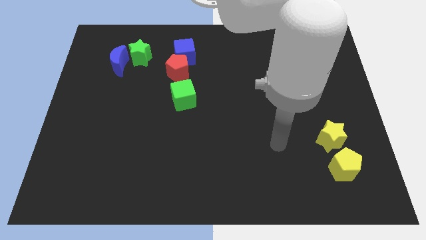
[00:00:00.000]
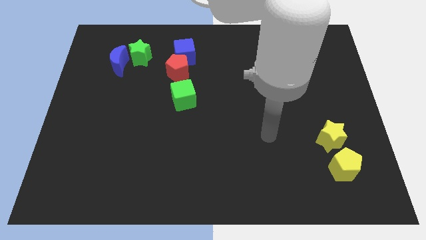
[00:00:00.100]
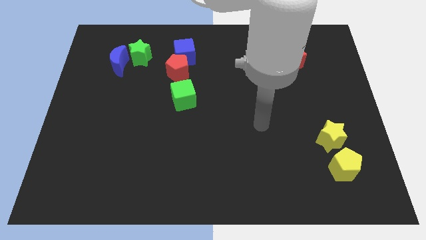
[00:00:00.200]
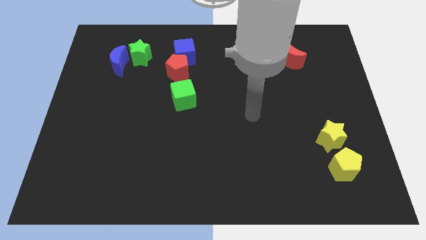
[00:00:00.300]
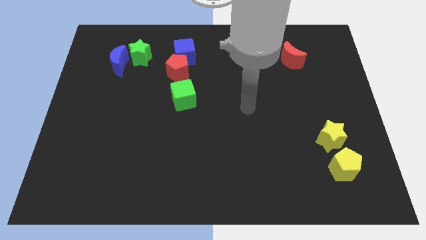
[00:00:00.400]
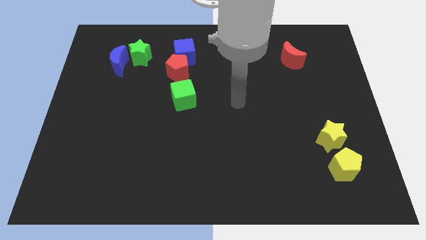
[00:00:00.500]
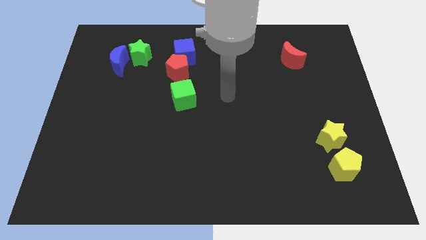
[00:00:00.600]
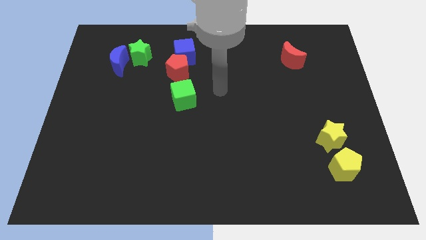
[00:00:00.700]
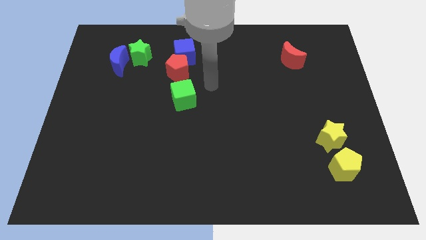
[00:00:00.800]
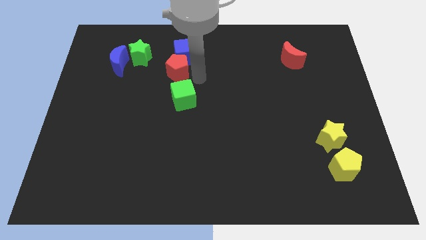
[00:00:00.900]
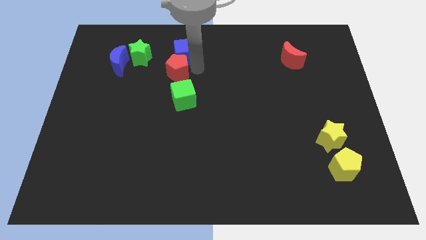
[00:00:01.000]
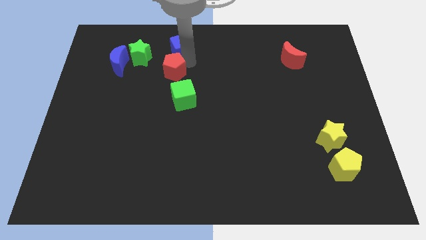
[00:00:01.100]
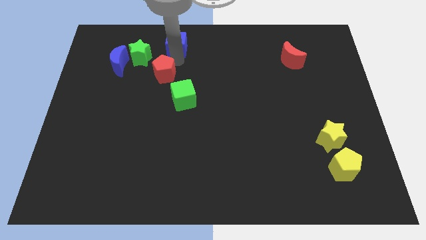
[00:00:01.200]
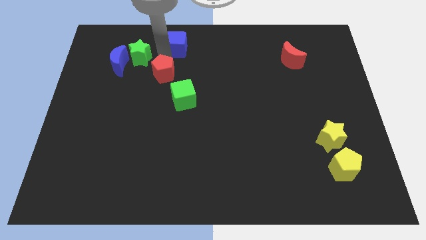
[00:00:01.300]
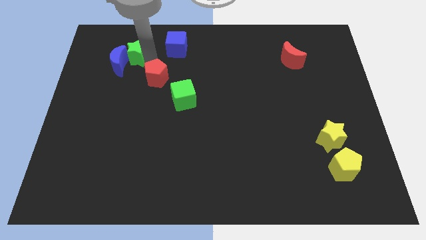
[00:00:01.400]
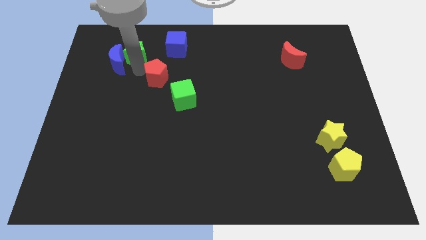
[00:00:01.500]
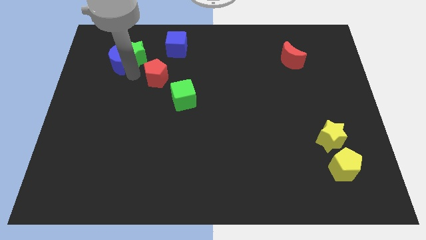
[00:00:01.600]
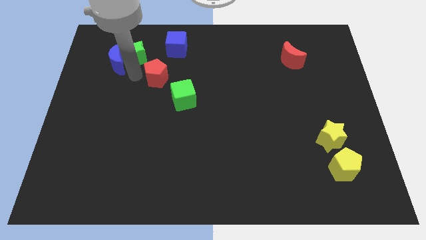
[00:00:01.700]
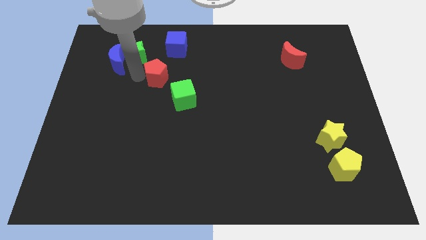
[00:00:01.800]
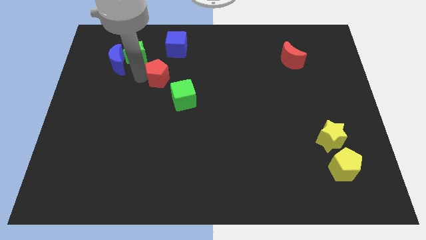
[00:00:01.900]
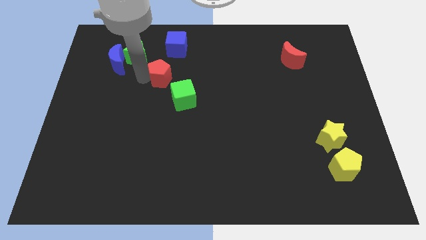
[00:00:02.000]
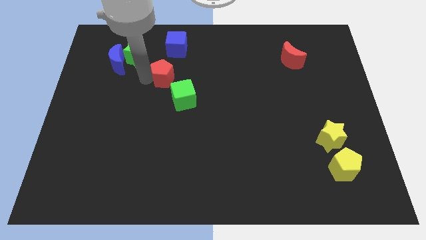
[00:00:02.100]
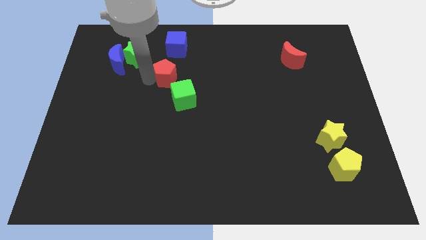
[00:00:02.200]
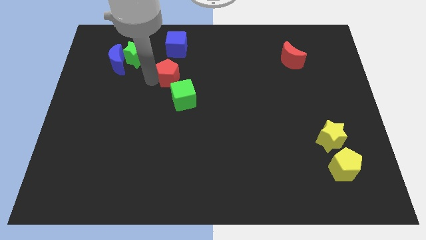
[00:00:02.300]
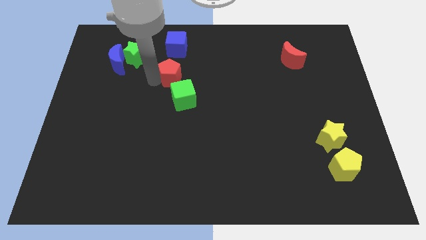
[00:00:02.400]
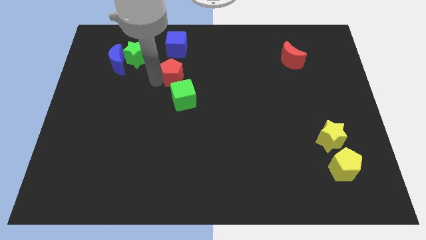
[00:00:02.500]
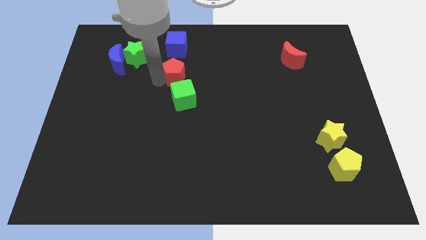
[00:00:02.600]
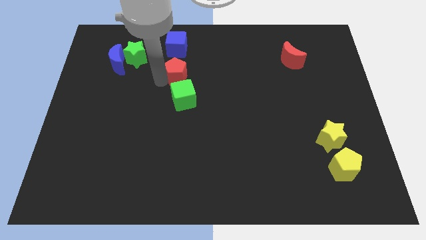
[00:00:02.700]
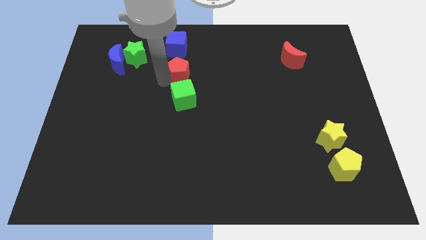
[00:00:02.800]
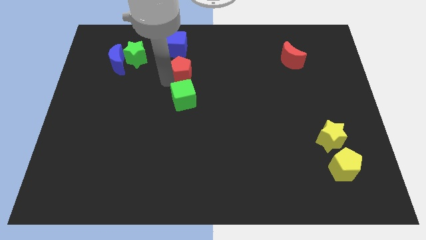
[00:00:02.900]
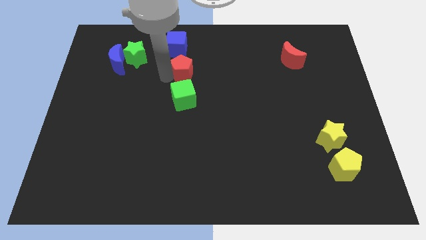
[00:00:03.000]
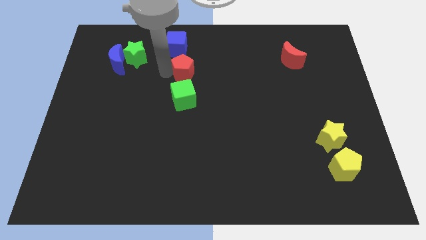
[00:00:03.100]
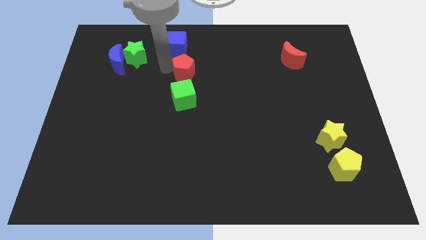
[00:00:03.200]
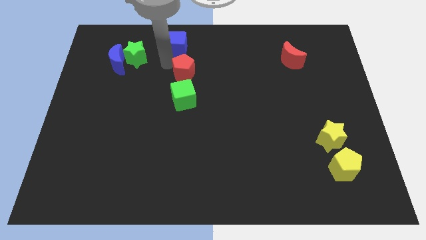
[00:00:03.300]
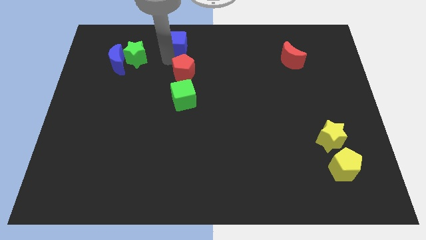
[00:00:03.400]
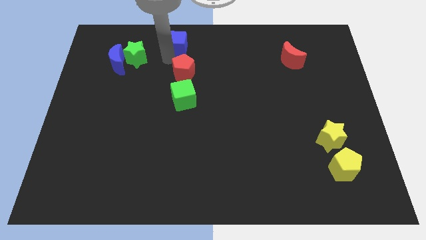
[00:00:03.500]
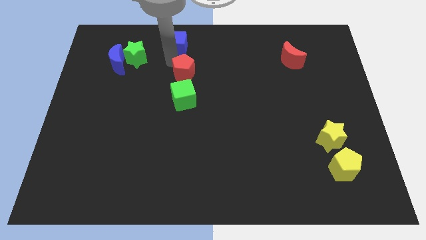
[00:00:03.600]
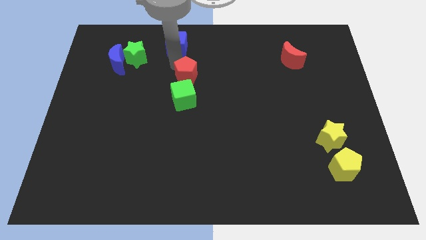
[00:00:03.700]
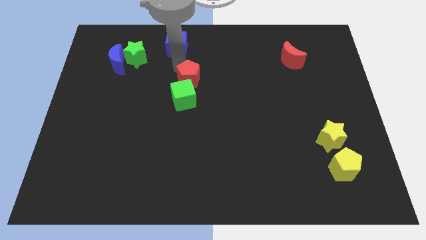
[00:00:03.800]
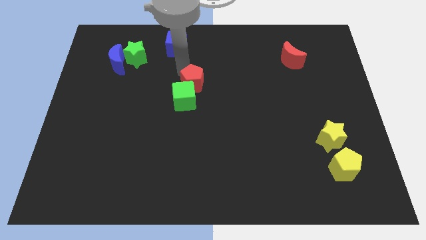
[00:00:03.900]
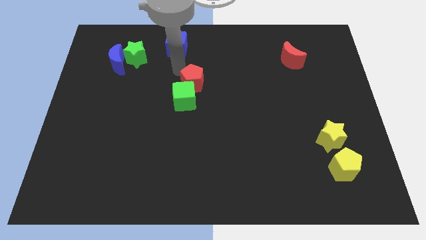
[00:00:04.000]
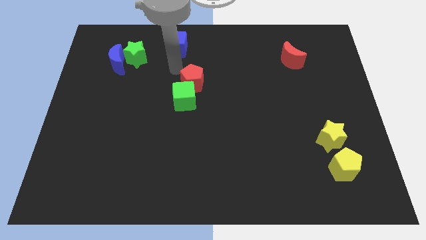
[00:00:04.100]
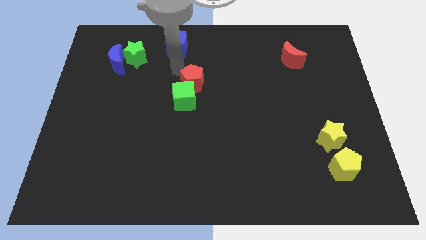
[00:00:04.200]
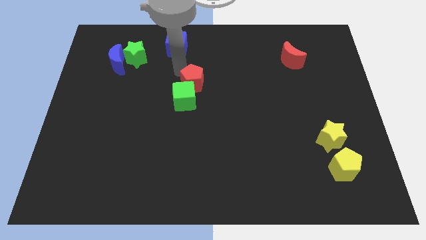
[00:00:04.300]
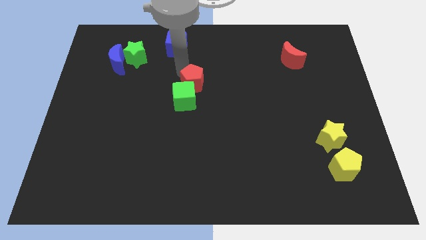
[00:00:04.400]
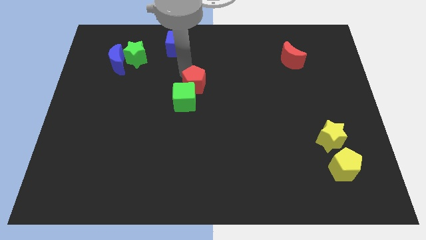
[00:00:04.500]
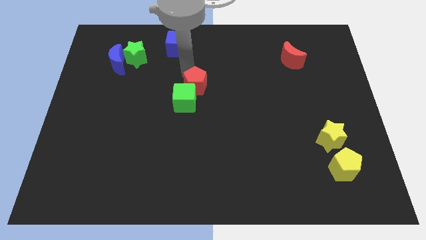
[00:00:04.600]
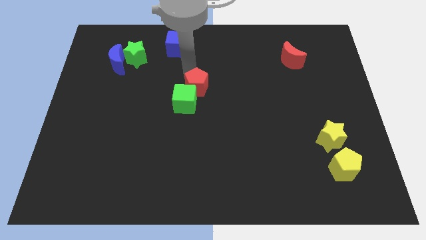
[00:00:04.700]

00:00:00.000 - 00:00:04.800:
push the red pentagon a bit down and then right

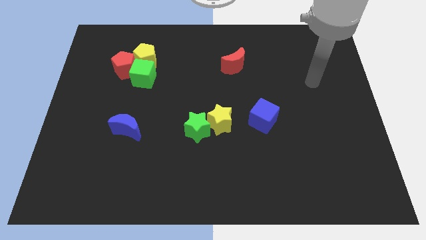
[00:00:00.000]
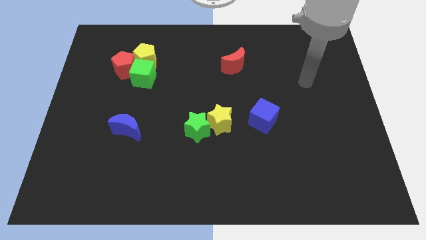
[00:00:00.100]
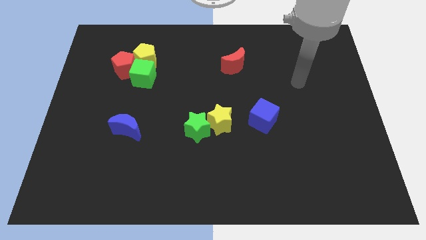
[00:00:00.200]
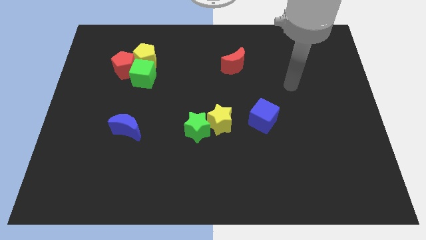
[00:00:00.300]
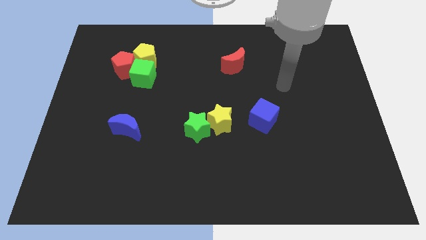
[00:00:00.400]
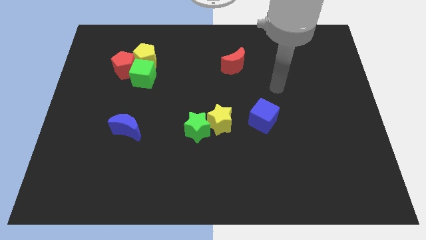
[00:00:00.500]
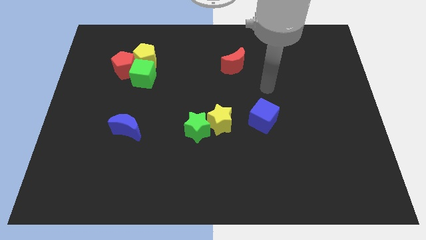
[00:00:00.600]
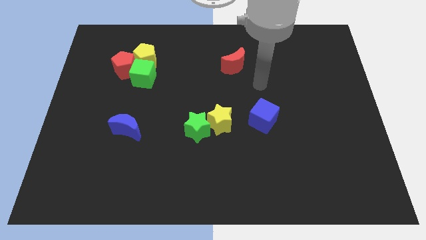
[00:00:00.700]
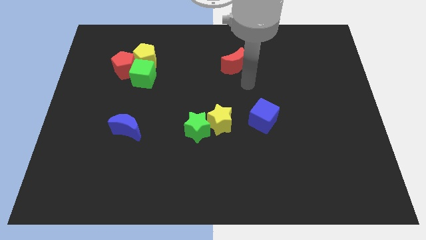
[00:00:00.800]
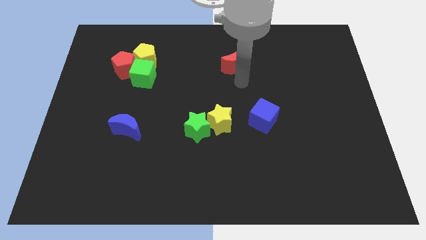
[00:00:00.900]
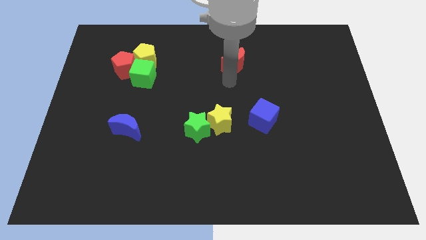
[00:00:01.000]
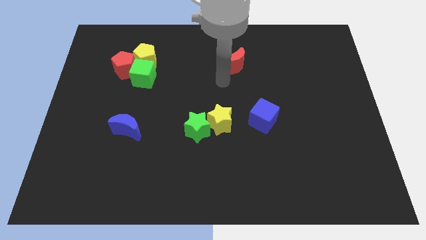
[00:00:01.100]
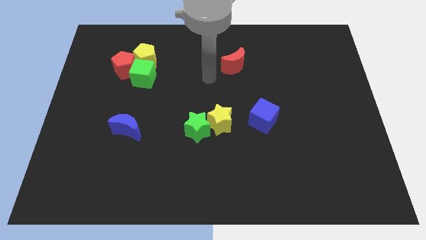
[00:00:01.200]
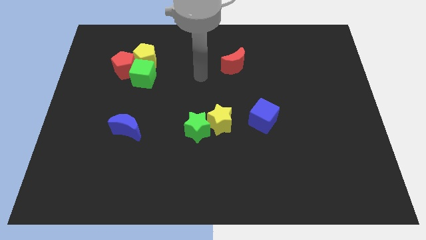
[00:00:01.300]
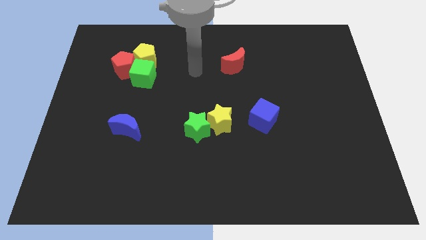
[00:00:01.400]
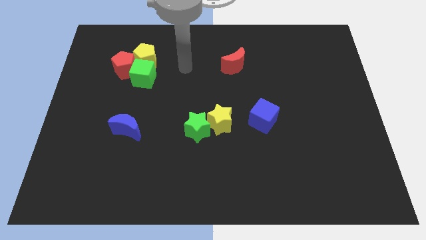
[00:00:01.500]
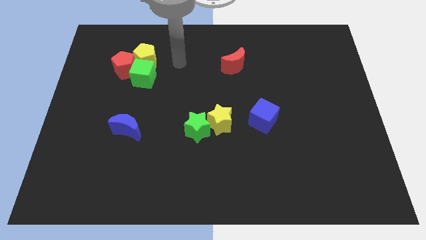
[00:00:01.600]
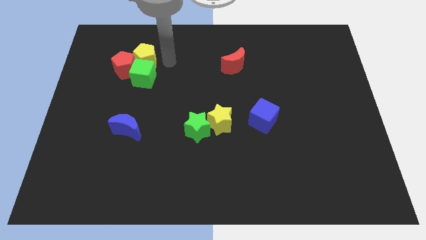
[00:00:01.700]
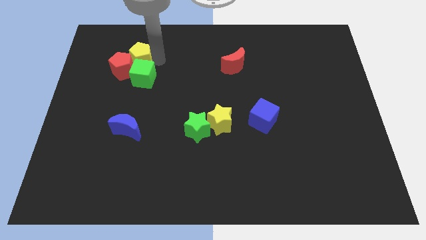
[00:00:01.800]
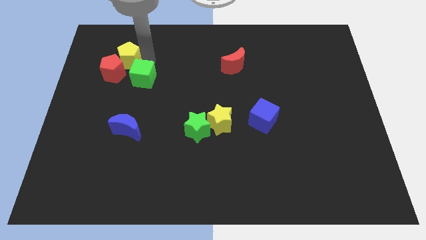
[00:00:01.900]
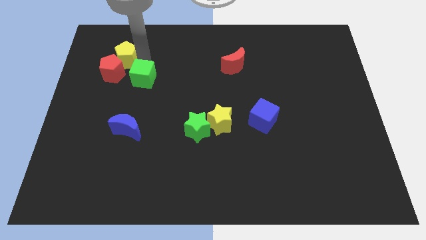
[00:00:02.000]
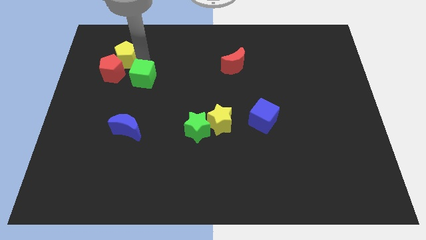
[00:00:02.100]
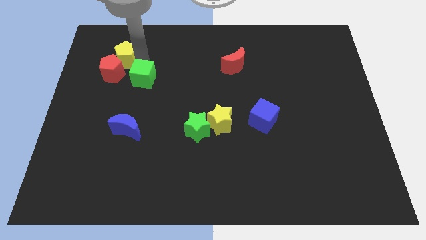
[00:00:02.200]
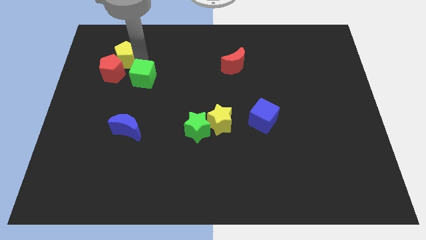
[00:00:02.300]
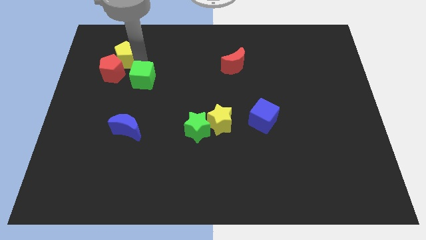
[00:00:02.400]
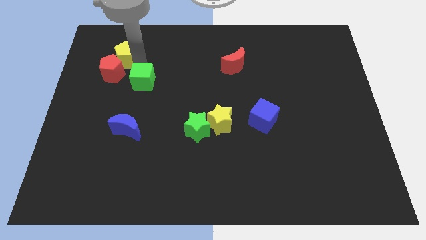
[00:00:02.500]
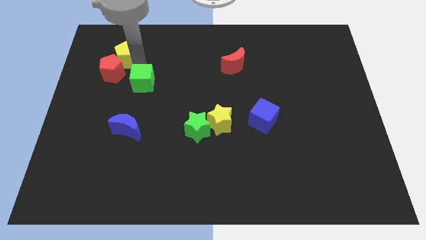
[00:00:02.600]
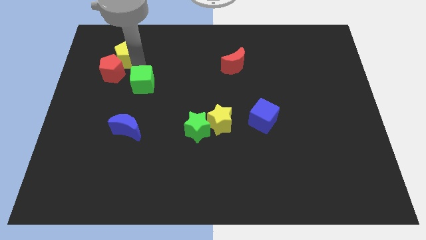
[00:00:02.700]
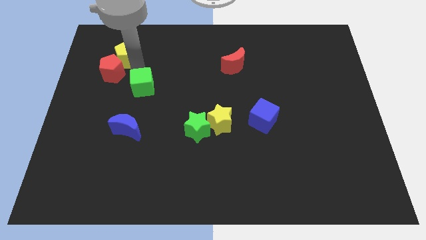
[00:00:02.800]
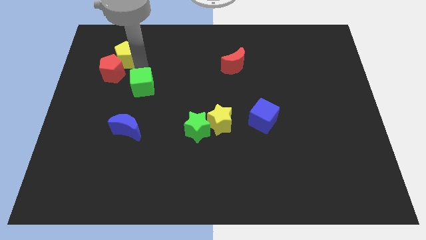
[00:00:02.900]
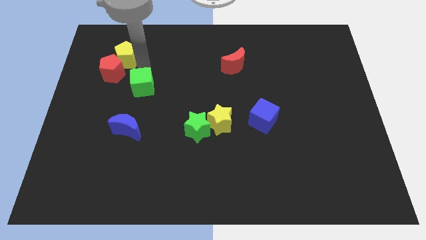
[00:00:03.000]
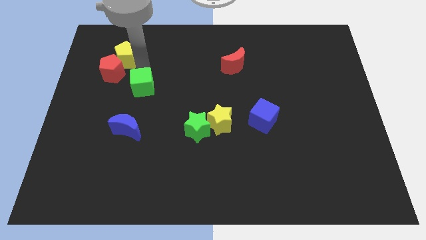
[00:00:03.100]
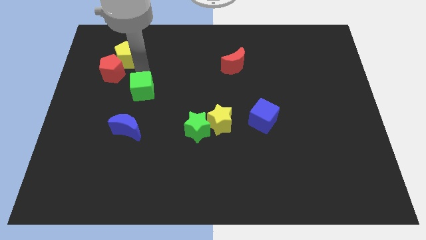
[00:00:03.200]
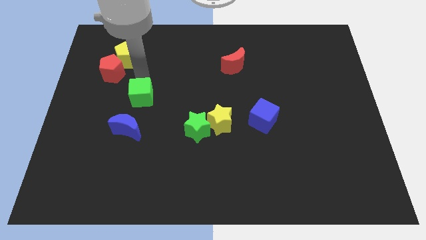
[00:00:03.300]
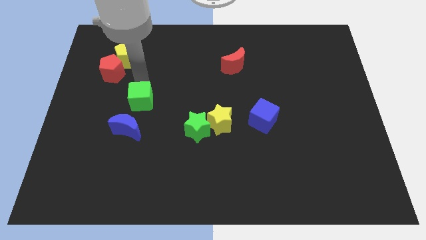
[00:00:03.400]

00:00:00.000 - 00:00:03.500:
slightly push the green cube down
